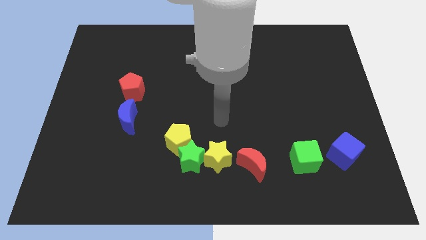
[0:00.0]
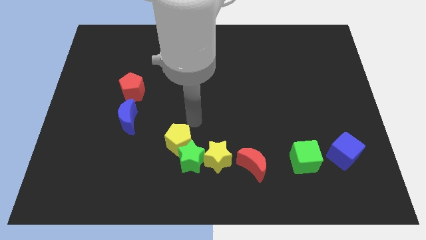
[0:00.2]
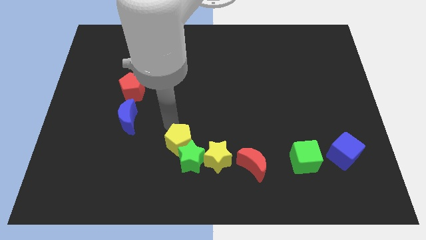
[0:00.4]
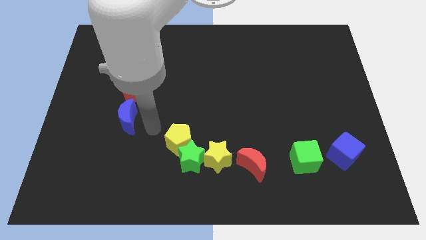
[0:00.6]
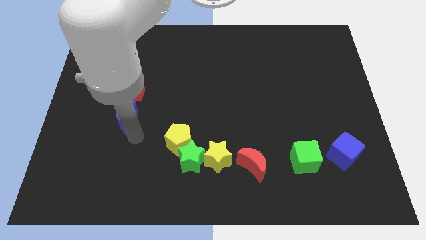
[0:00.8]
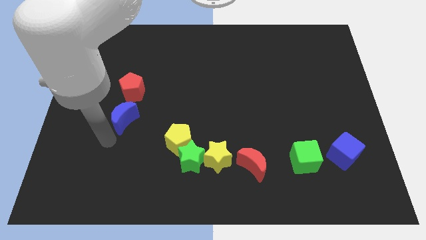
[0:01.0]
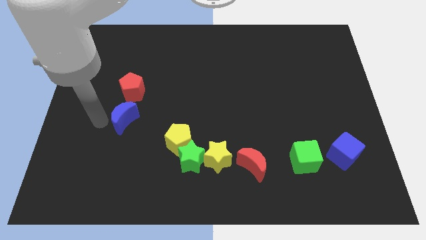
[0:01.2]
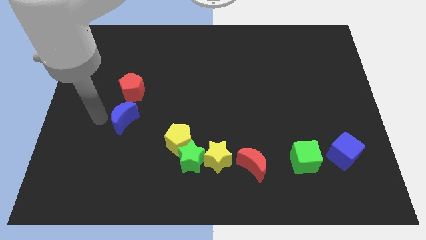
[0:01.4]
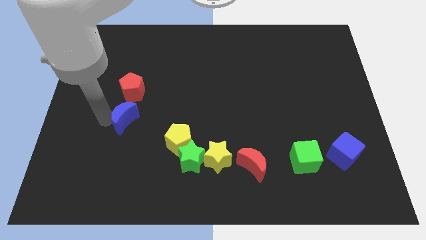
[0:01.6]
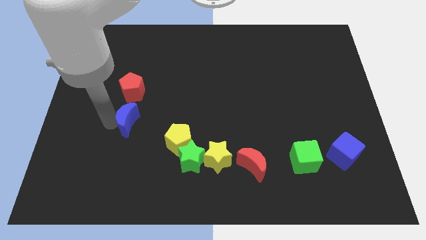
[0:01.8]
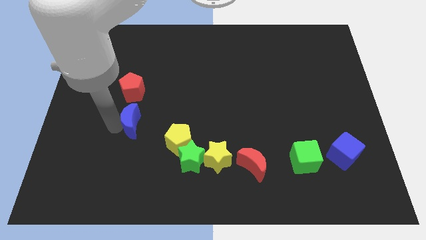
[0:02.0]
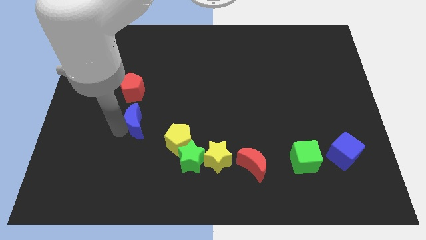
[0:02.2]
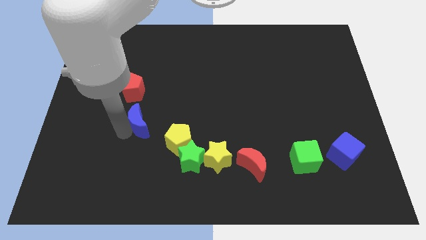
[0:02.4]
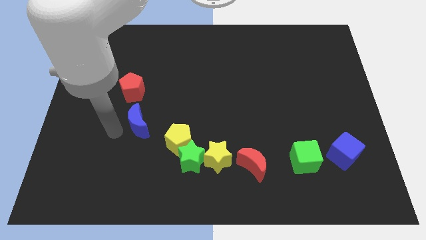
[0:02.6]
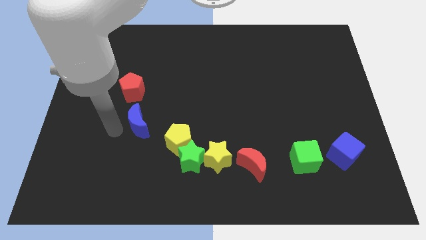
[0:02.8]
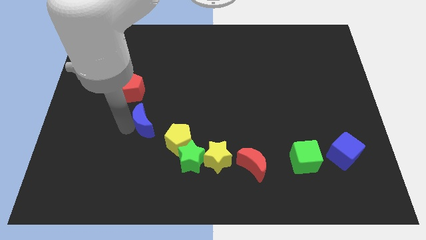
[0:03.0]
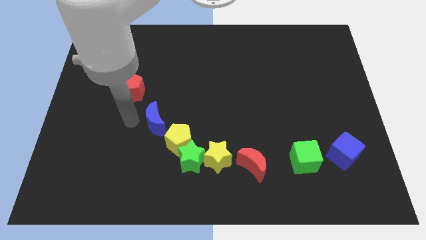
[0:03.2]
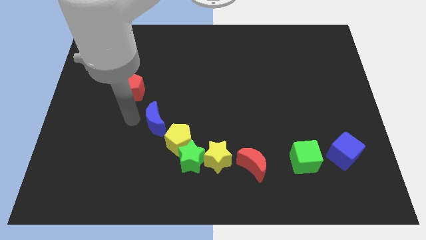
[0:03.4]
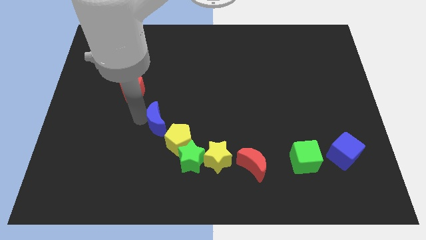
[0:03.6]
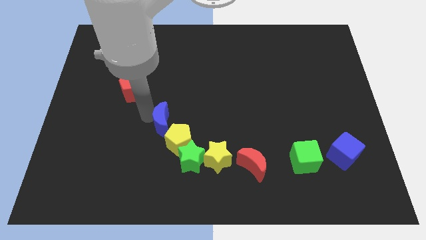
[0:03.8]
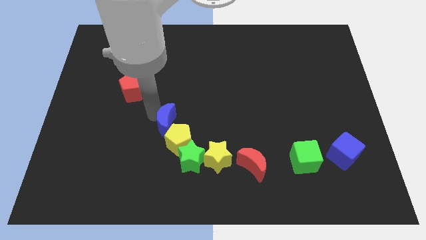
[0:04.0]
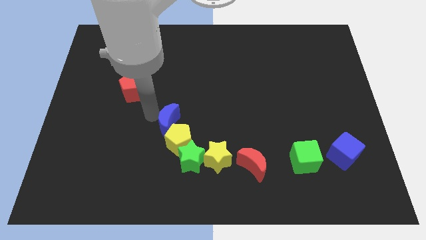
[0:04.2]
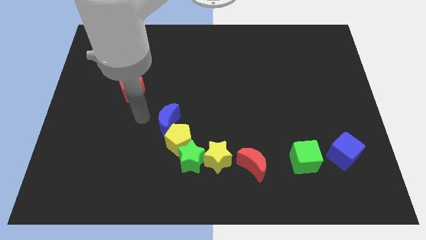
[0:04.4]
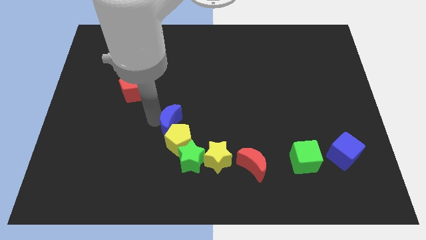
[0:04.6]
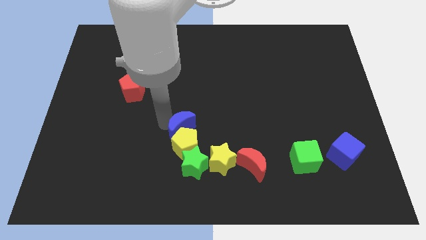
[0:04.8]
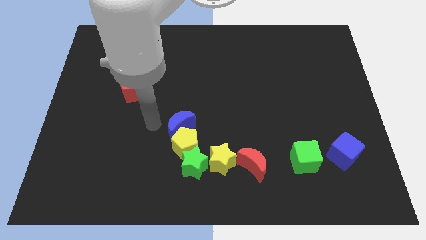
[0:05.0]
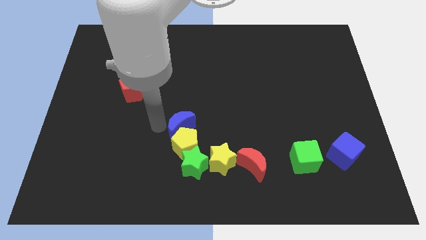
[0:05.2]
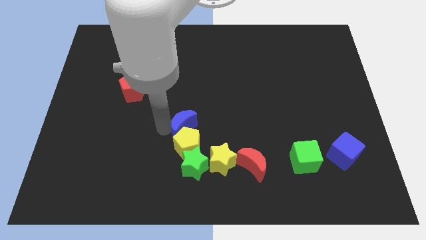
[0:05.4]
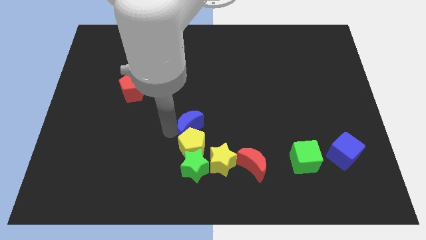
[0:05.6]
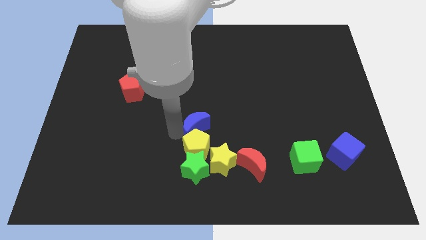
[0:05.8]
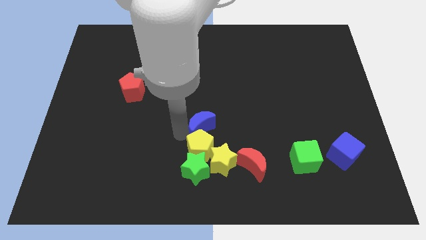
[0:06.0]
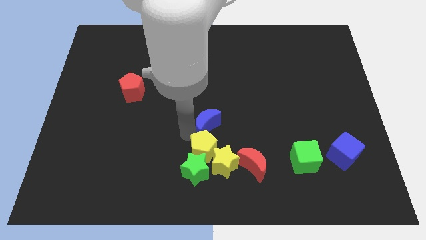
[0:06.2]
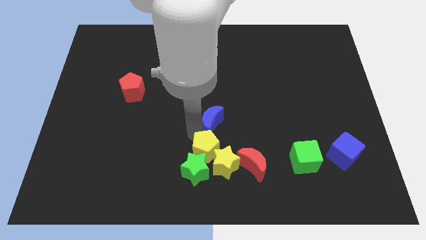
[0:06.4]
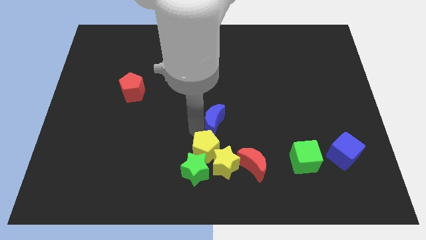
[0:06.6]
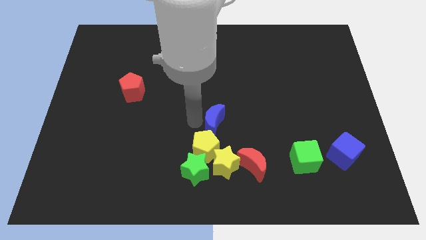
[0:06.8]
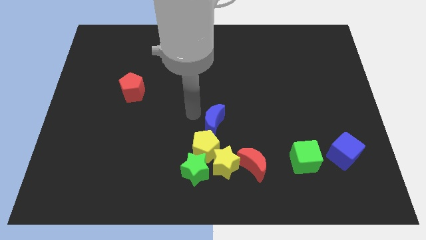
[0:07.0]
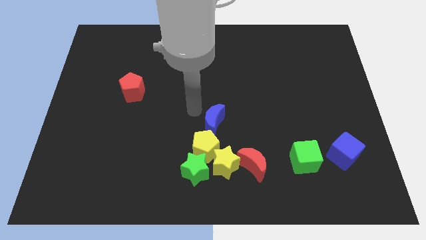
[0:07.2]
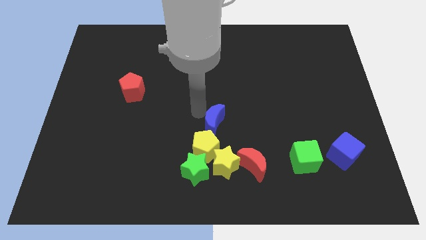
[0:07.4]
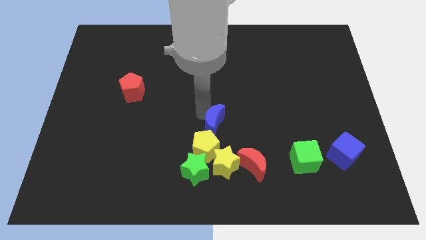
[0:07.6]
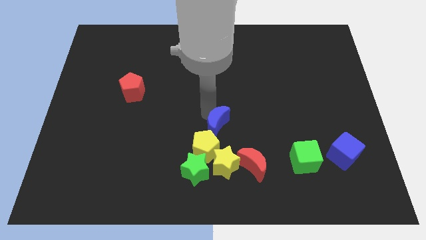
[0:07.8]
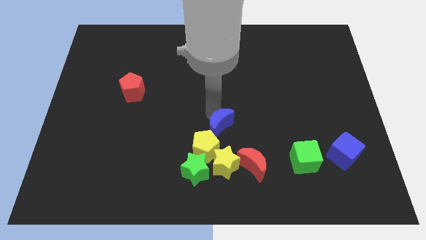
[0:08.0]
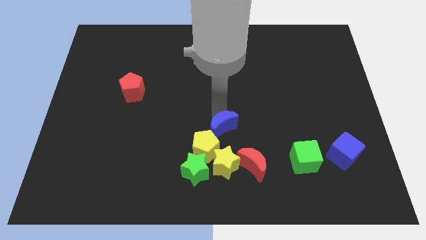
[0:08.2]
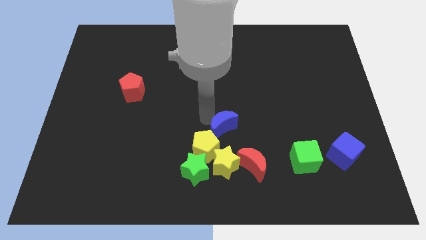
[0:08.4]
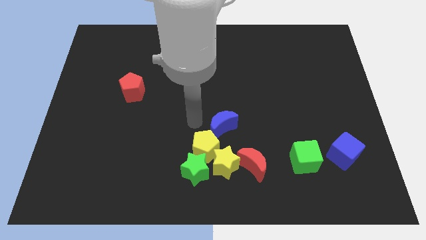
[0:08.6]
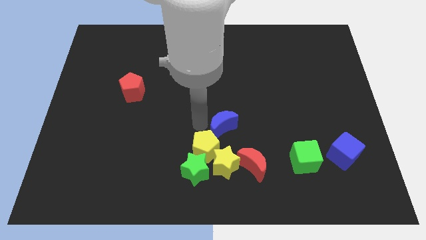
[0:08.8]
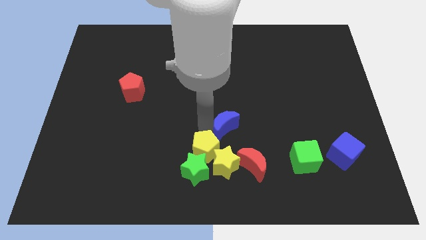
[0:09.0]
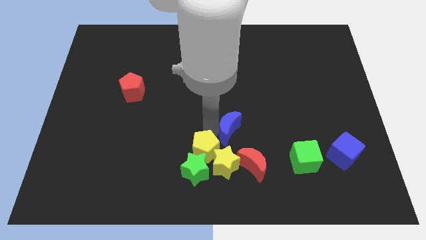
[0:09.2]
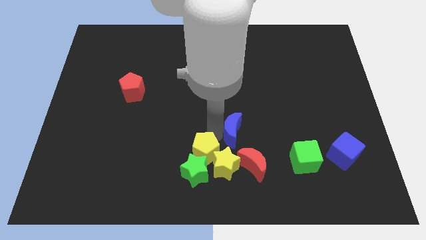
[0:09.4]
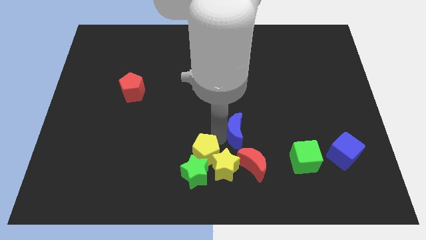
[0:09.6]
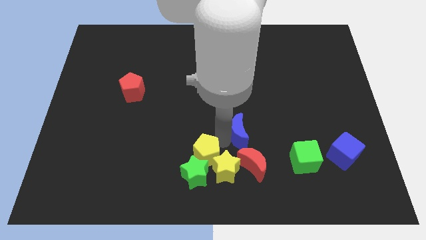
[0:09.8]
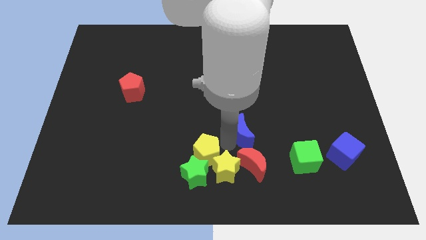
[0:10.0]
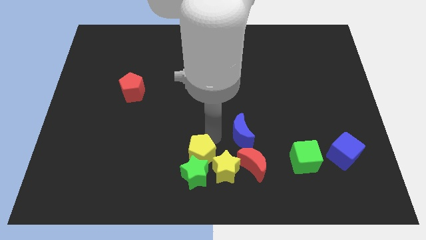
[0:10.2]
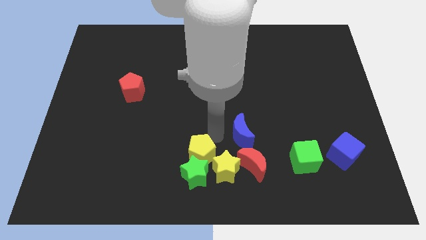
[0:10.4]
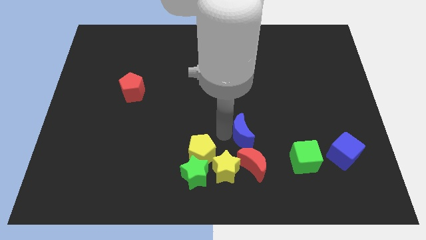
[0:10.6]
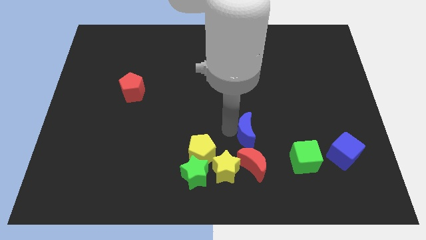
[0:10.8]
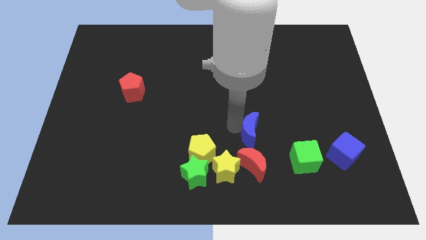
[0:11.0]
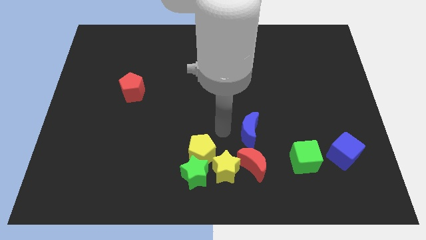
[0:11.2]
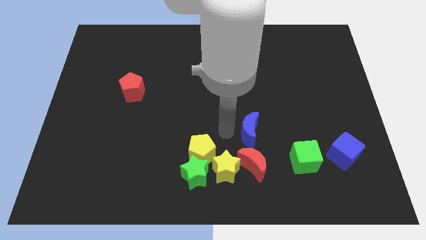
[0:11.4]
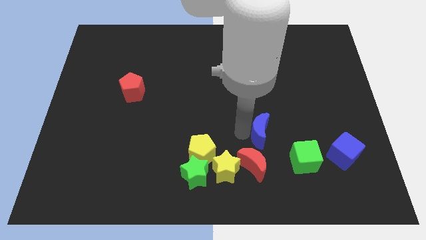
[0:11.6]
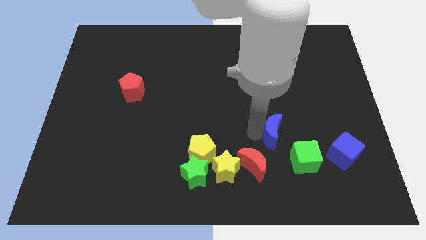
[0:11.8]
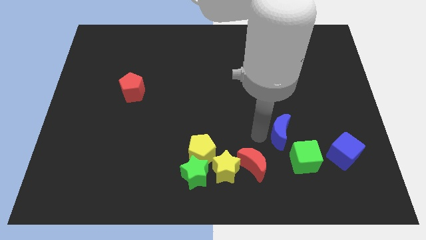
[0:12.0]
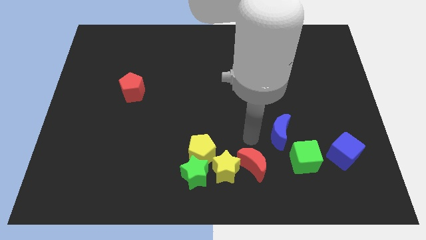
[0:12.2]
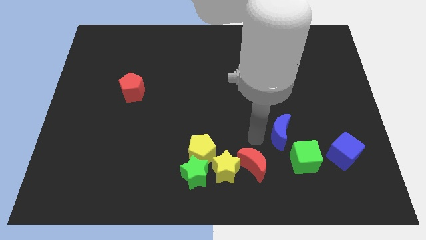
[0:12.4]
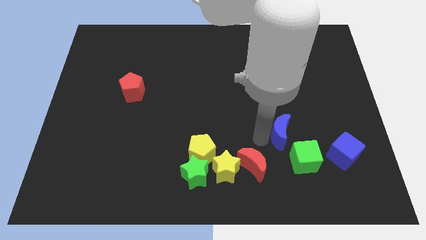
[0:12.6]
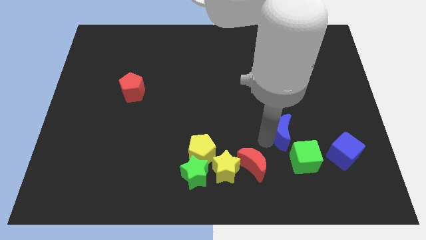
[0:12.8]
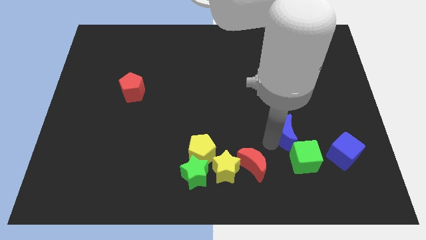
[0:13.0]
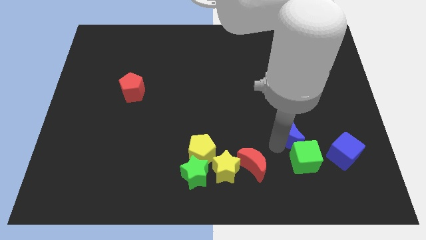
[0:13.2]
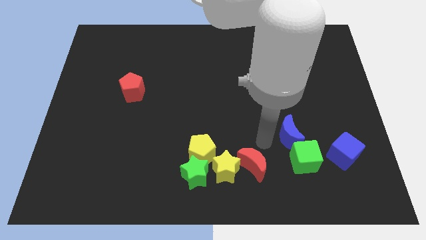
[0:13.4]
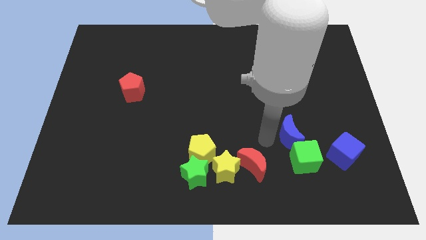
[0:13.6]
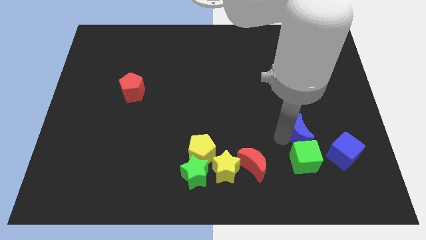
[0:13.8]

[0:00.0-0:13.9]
slide the blue moon to the top left of the blue cube

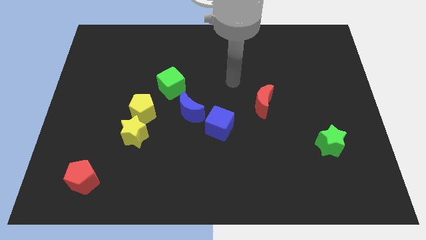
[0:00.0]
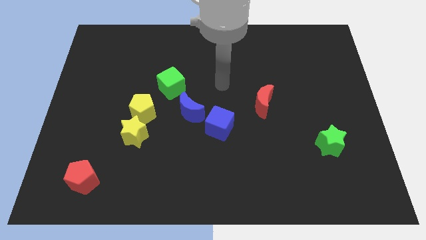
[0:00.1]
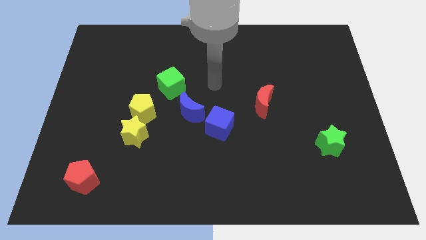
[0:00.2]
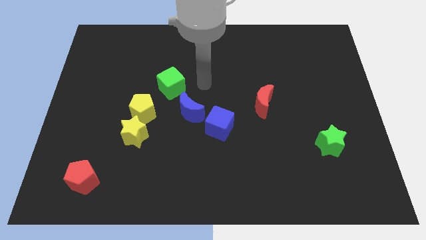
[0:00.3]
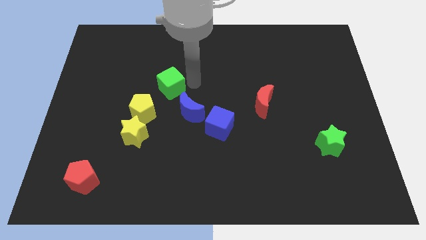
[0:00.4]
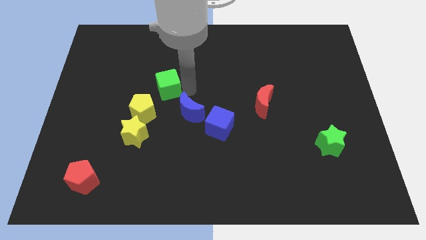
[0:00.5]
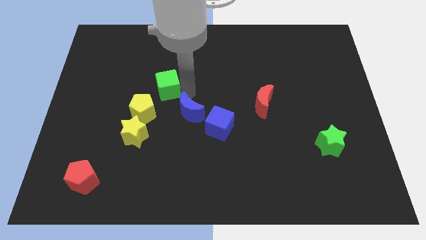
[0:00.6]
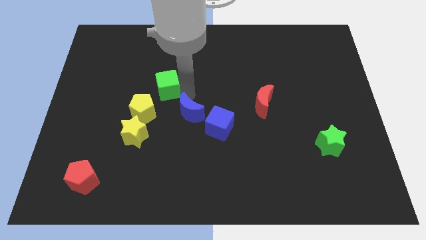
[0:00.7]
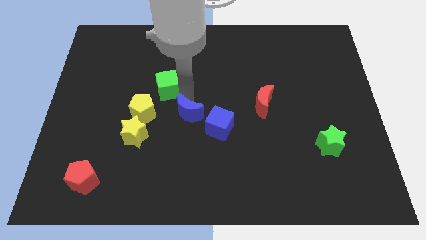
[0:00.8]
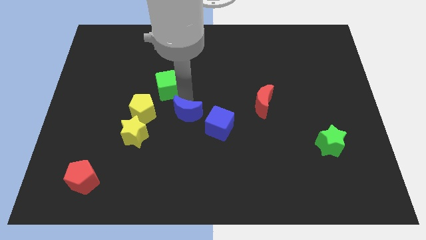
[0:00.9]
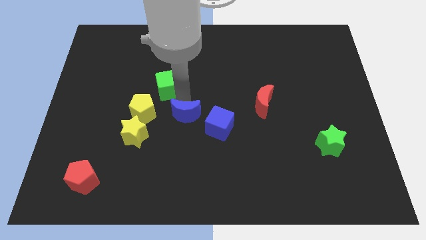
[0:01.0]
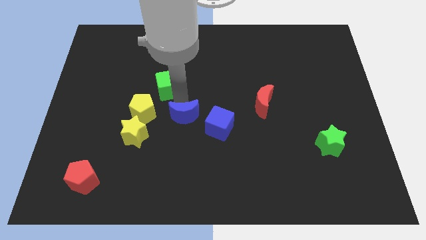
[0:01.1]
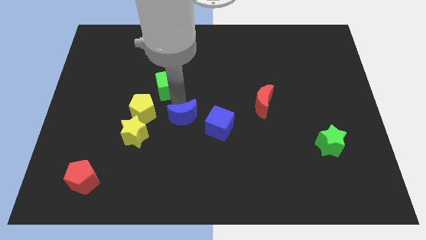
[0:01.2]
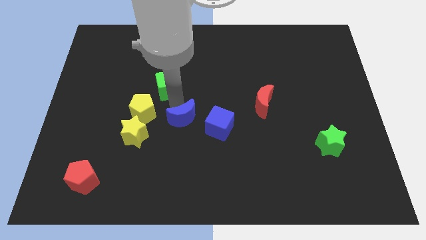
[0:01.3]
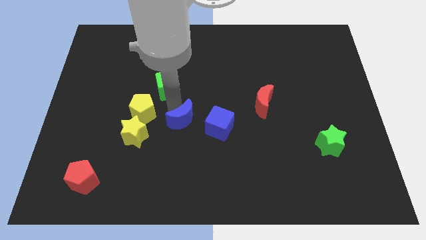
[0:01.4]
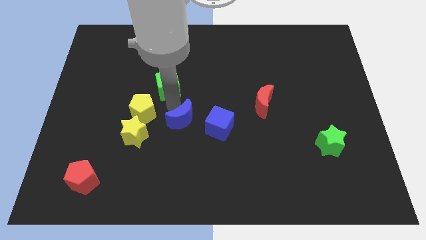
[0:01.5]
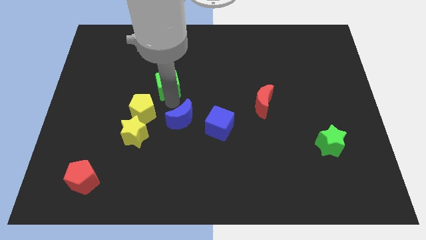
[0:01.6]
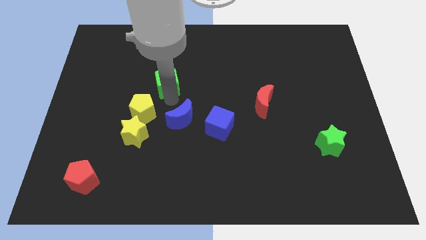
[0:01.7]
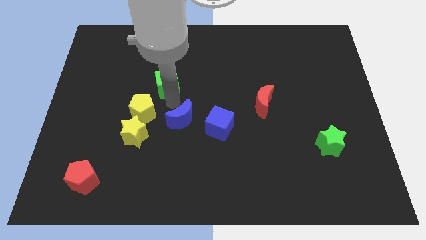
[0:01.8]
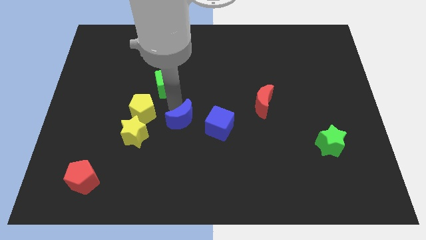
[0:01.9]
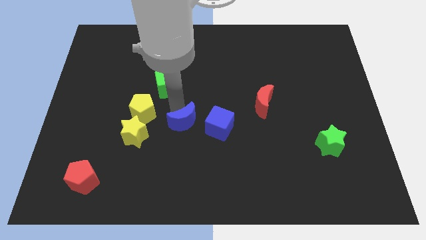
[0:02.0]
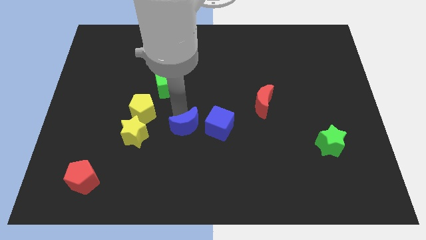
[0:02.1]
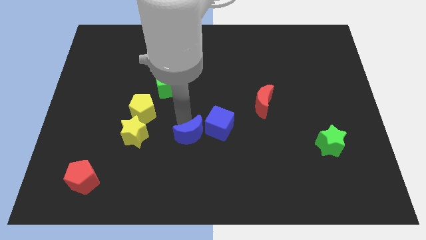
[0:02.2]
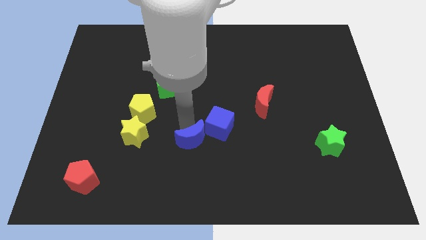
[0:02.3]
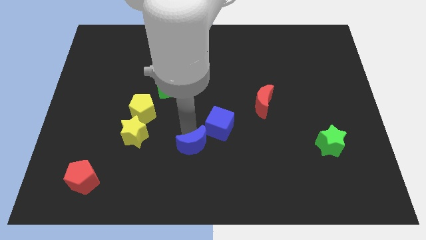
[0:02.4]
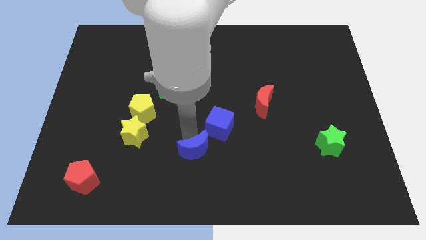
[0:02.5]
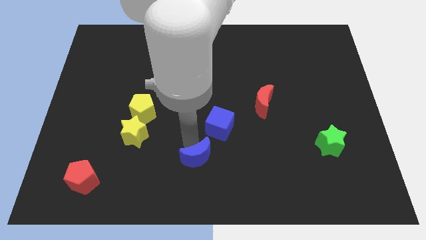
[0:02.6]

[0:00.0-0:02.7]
move the blue moon below the blue cube
